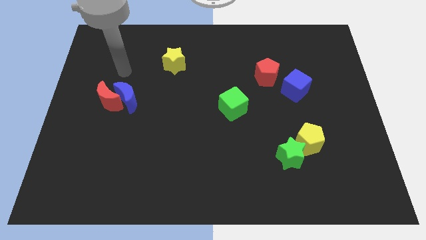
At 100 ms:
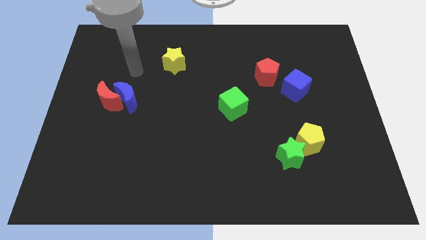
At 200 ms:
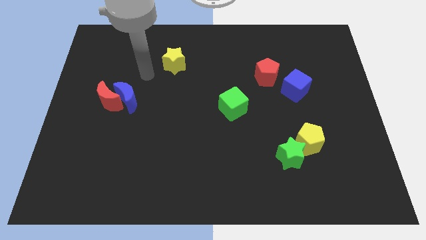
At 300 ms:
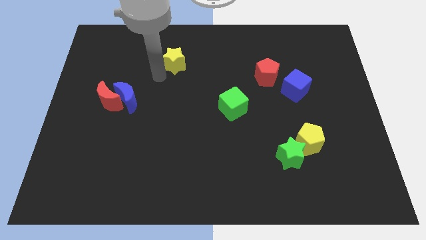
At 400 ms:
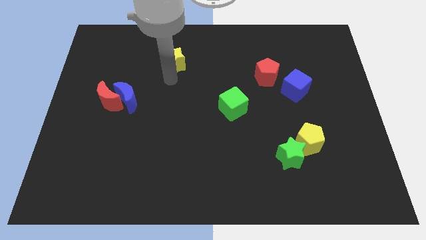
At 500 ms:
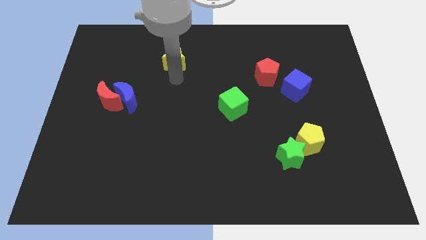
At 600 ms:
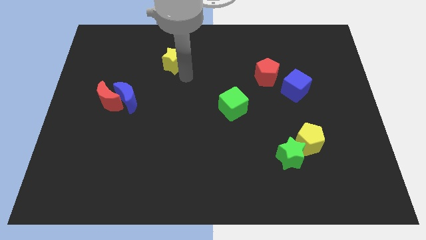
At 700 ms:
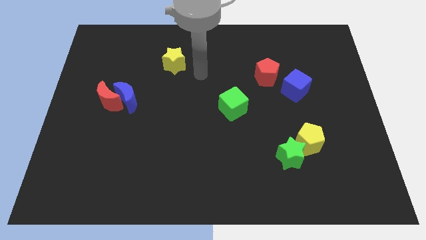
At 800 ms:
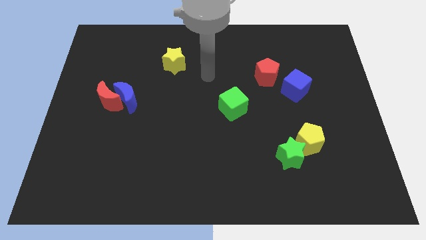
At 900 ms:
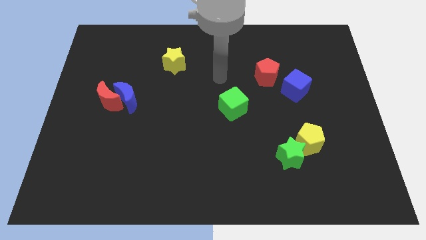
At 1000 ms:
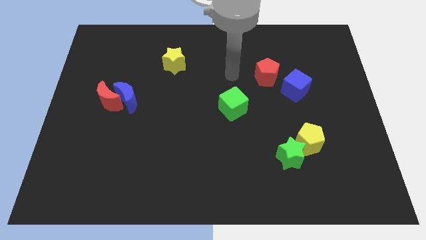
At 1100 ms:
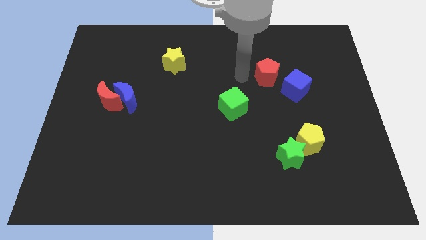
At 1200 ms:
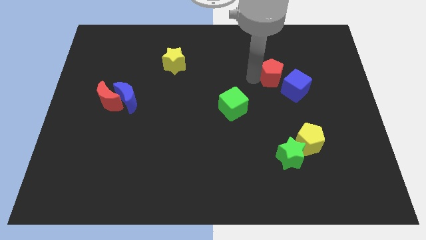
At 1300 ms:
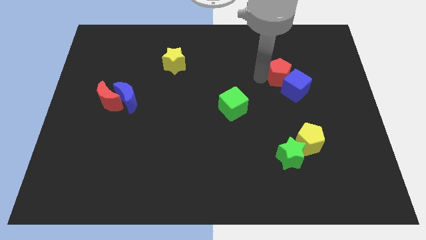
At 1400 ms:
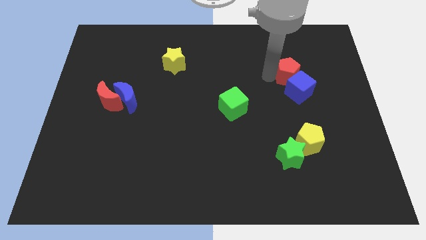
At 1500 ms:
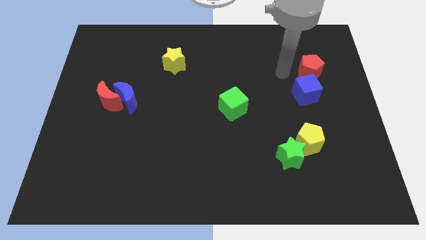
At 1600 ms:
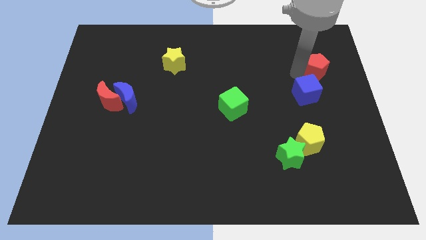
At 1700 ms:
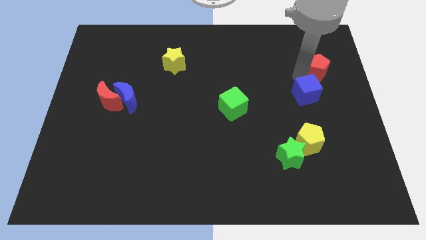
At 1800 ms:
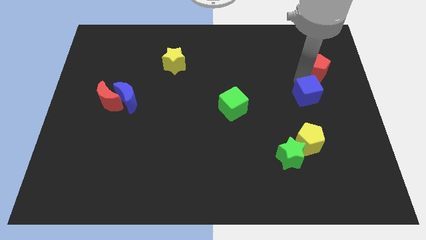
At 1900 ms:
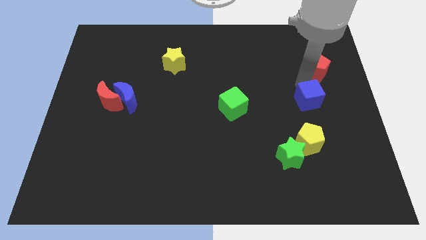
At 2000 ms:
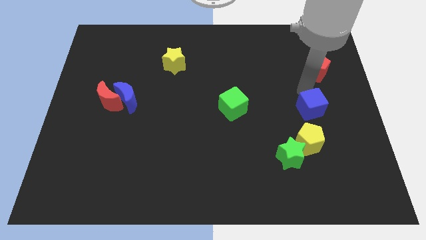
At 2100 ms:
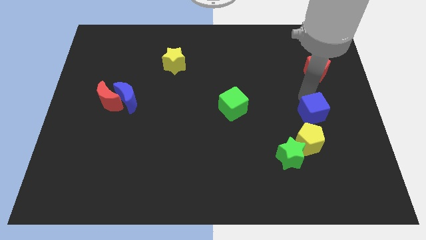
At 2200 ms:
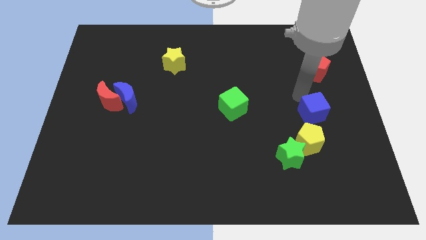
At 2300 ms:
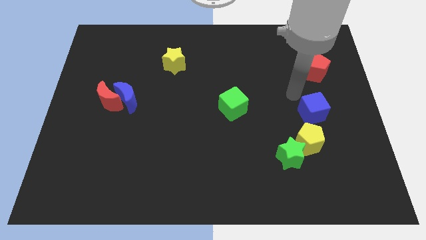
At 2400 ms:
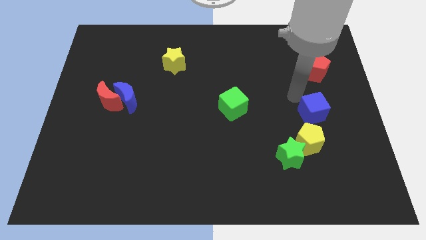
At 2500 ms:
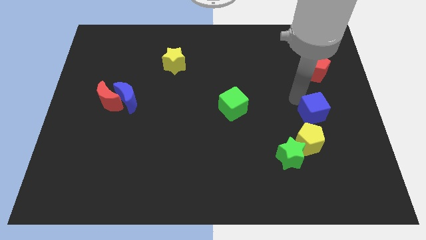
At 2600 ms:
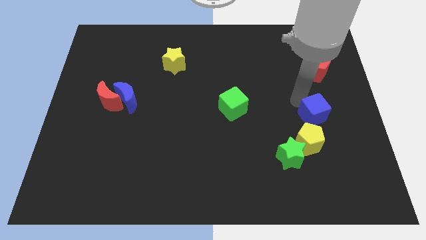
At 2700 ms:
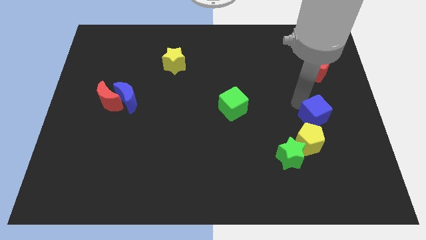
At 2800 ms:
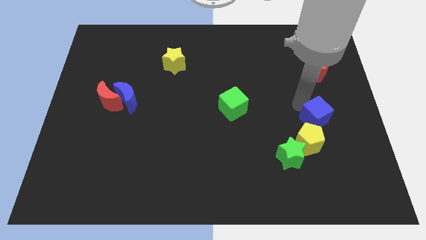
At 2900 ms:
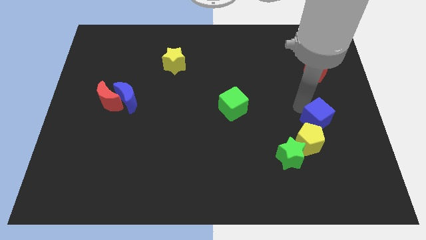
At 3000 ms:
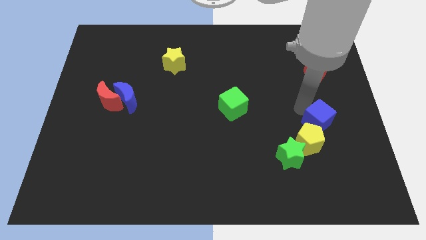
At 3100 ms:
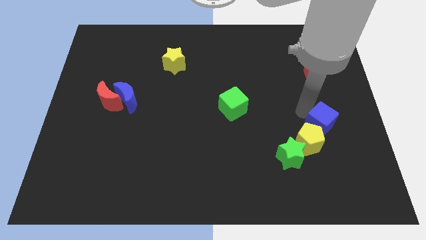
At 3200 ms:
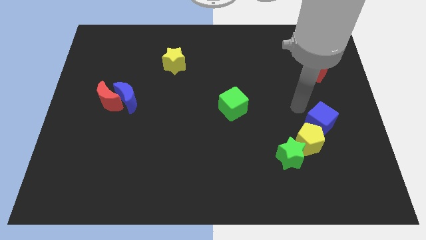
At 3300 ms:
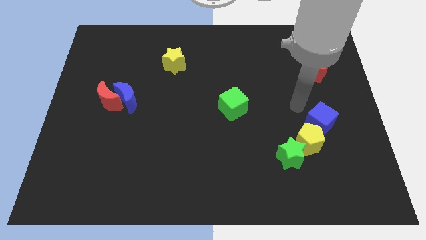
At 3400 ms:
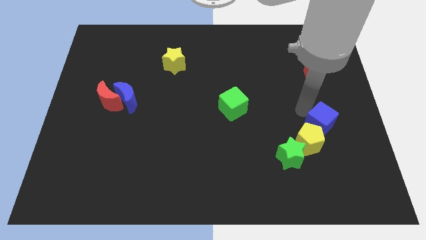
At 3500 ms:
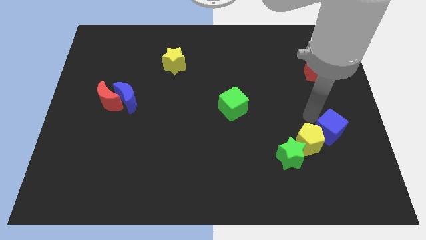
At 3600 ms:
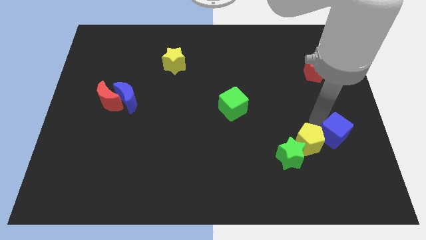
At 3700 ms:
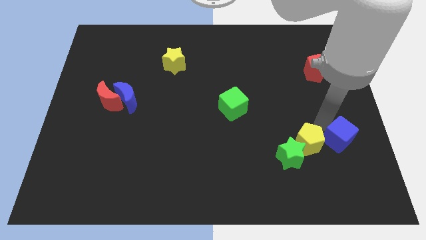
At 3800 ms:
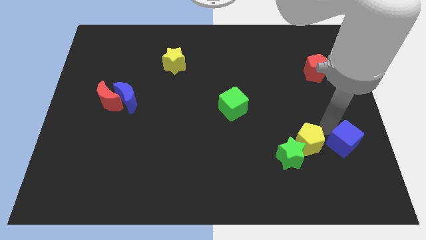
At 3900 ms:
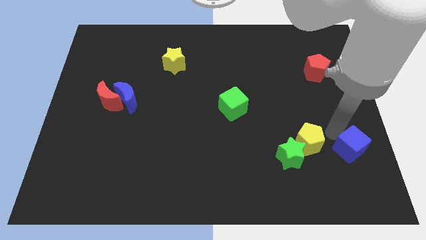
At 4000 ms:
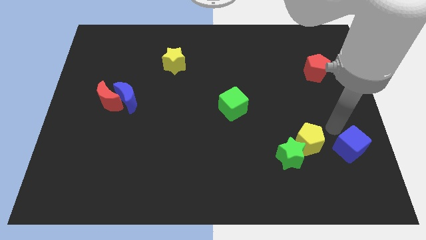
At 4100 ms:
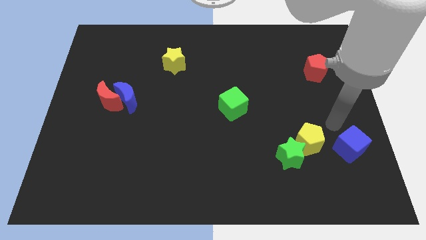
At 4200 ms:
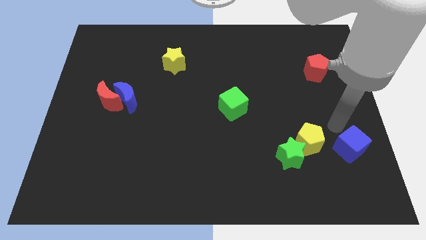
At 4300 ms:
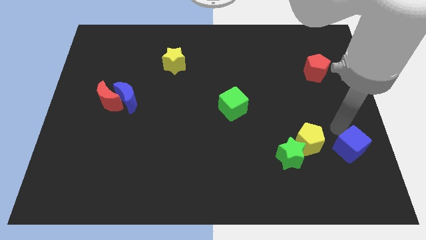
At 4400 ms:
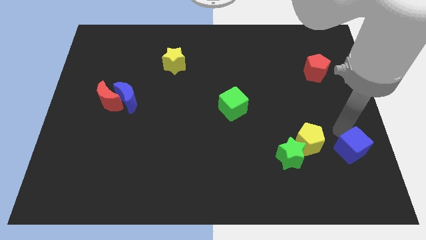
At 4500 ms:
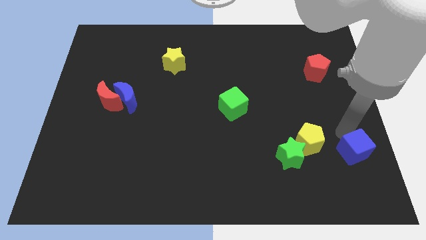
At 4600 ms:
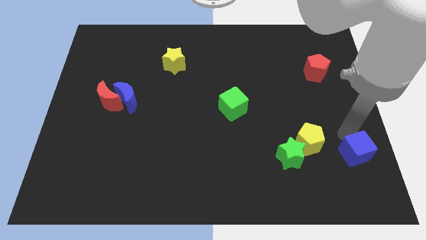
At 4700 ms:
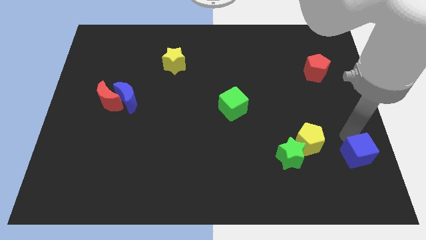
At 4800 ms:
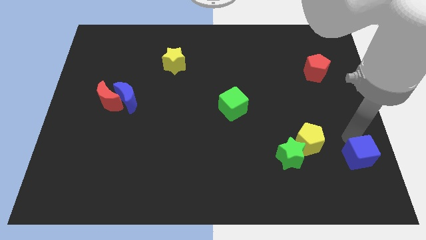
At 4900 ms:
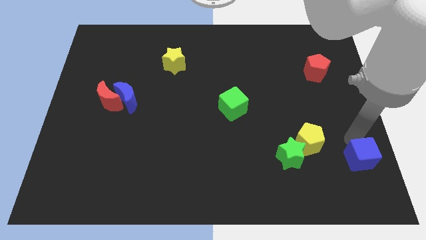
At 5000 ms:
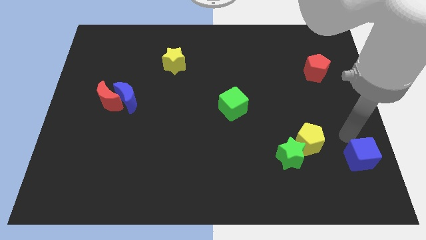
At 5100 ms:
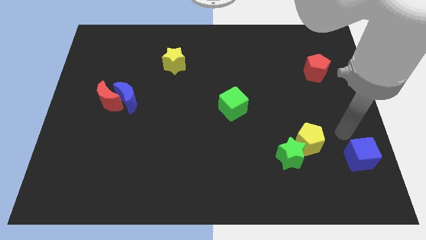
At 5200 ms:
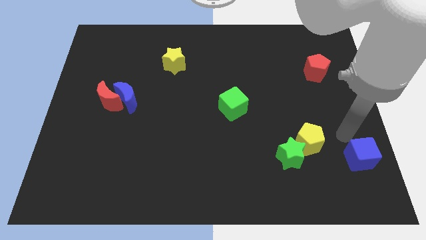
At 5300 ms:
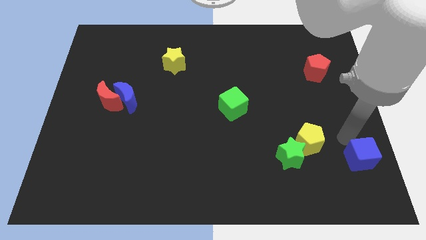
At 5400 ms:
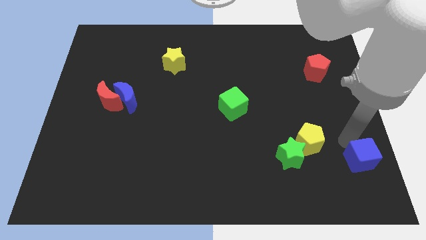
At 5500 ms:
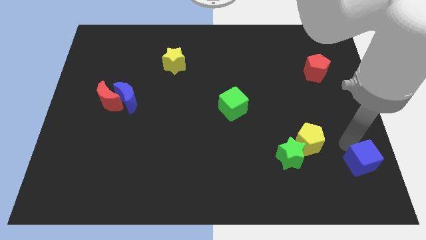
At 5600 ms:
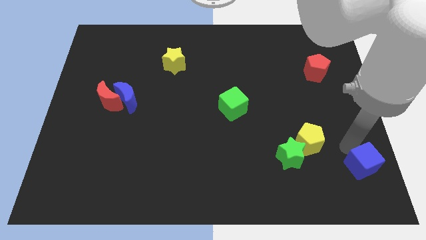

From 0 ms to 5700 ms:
push the blue cube to the bottom right of the board
